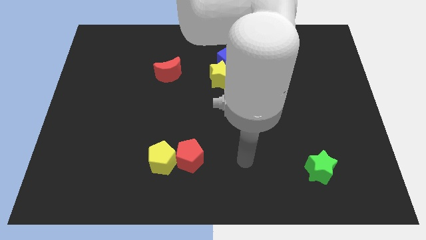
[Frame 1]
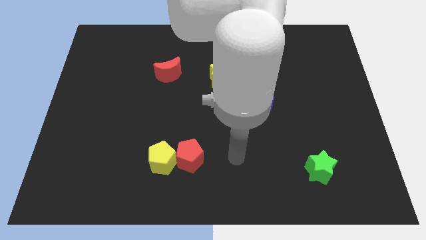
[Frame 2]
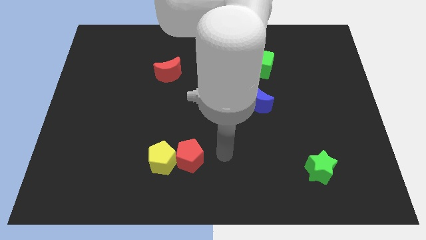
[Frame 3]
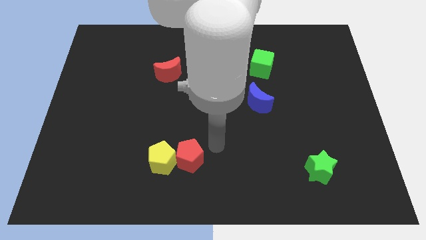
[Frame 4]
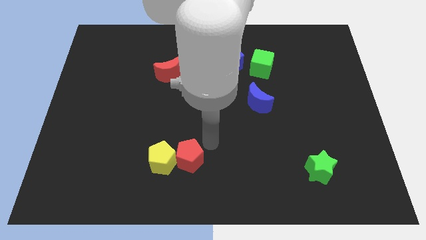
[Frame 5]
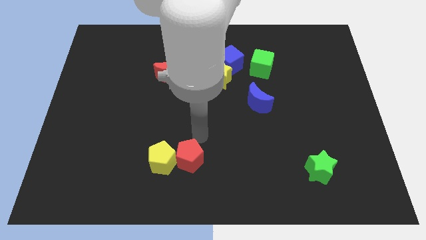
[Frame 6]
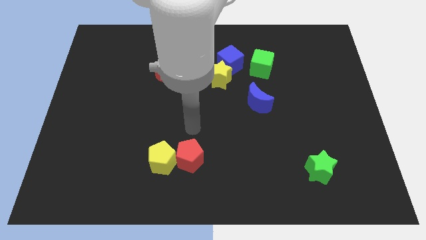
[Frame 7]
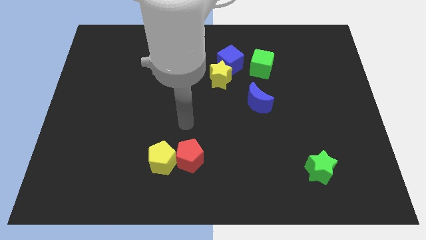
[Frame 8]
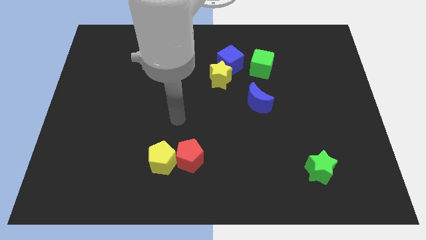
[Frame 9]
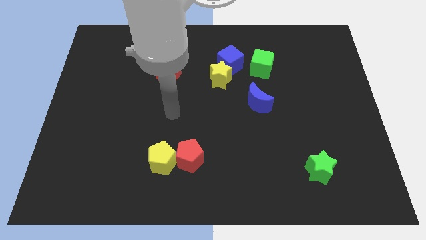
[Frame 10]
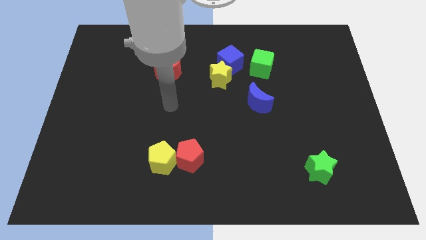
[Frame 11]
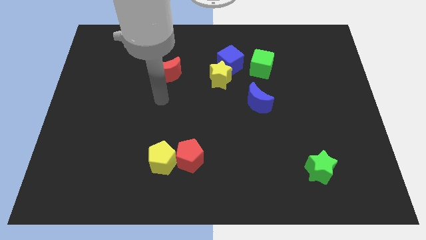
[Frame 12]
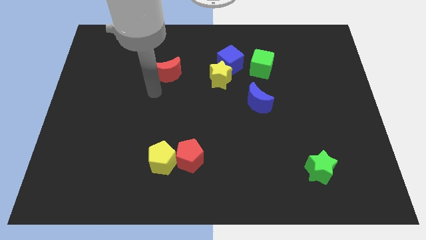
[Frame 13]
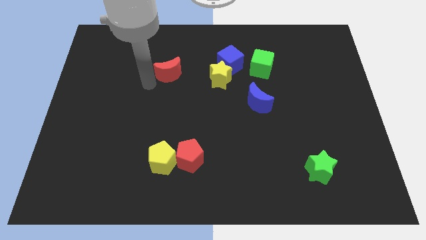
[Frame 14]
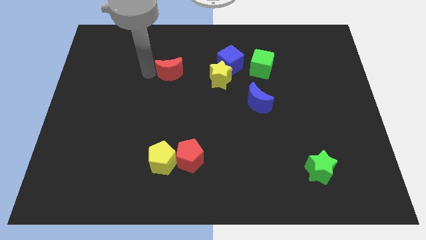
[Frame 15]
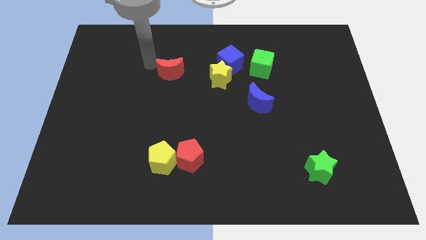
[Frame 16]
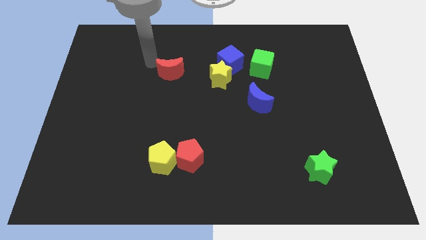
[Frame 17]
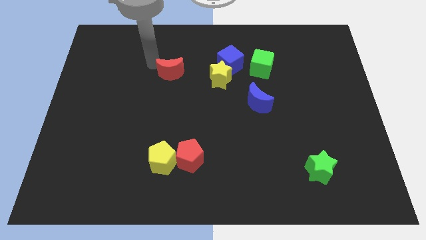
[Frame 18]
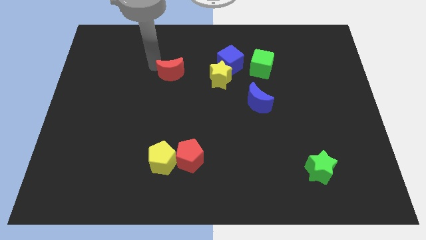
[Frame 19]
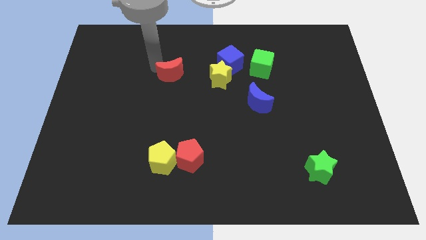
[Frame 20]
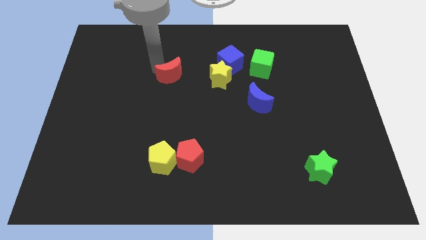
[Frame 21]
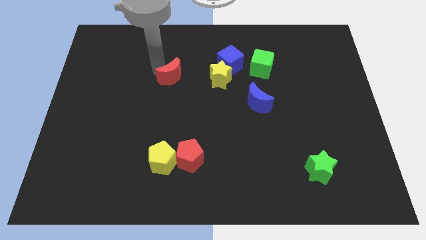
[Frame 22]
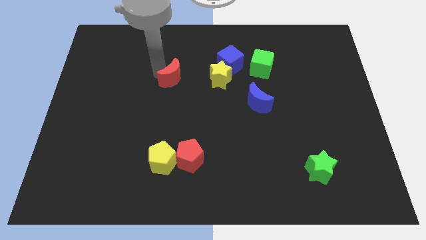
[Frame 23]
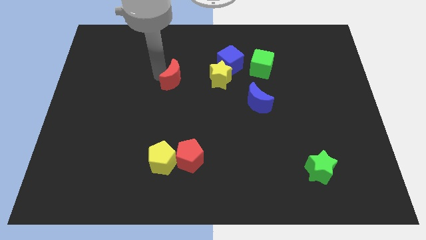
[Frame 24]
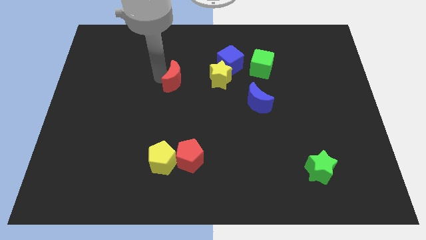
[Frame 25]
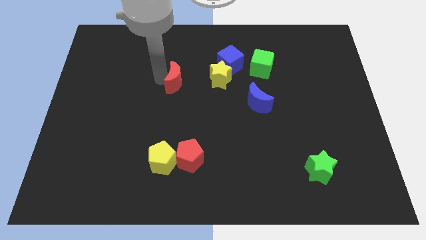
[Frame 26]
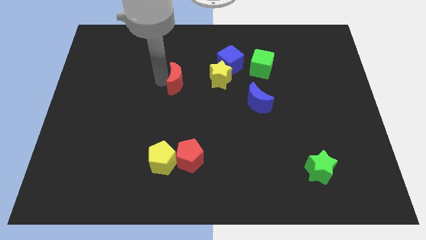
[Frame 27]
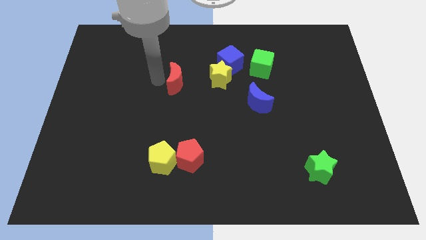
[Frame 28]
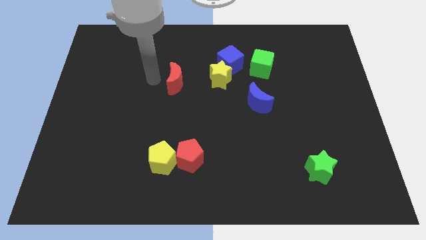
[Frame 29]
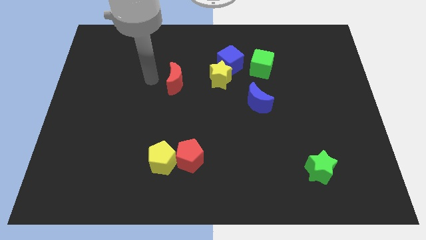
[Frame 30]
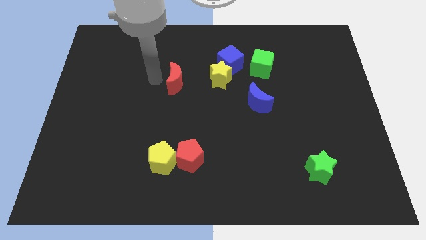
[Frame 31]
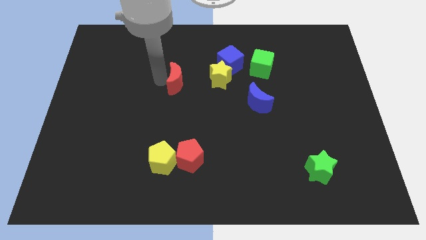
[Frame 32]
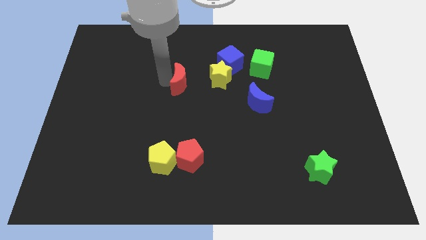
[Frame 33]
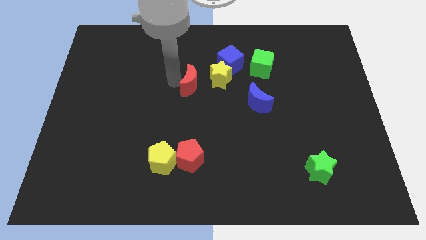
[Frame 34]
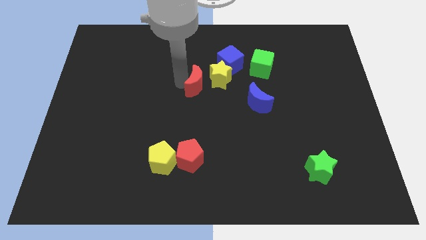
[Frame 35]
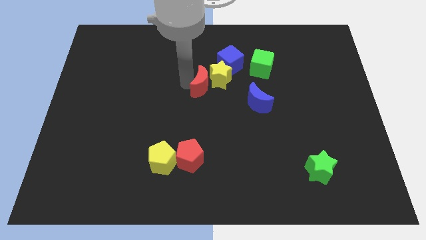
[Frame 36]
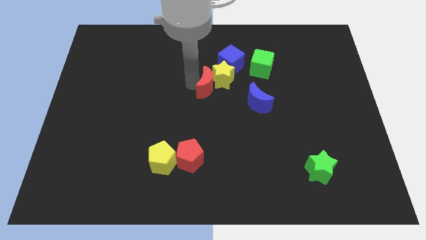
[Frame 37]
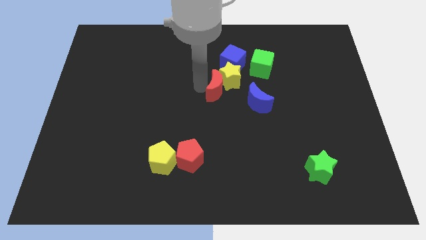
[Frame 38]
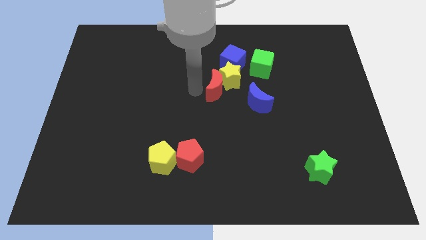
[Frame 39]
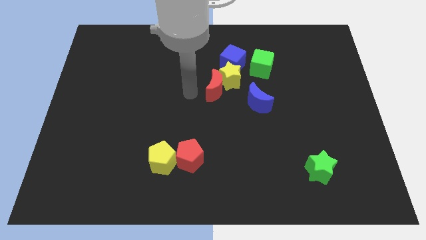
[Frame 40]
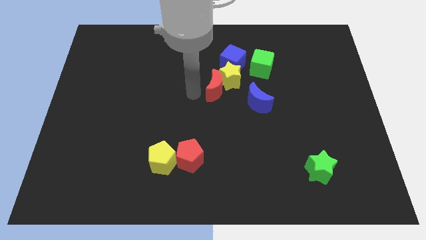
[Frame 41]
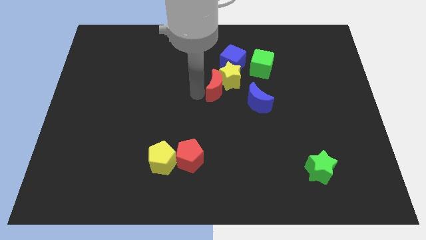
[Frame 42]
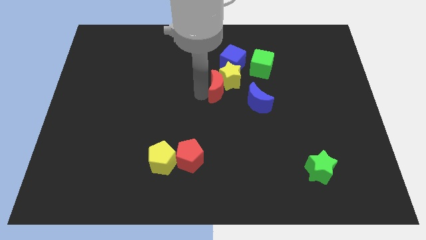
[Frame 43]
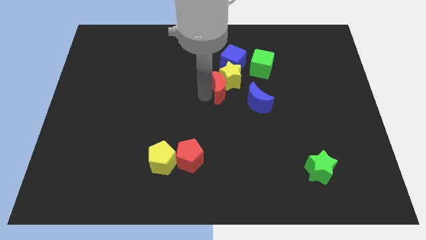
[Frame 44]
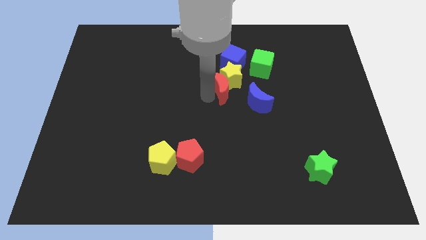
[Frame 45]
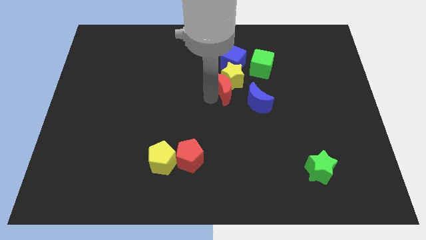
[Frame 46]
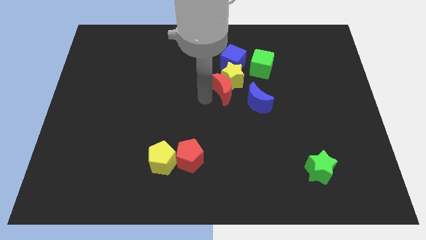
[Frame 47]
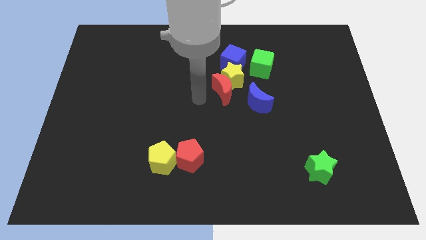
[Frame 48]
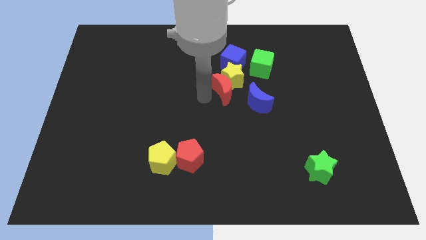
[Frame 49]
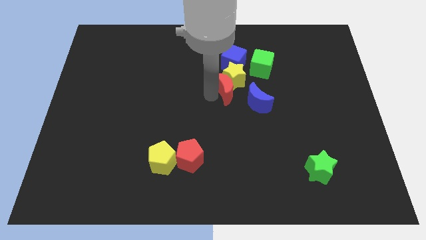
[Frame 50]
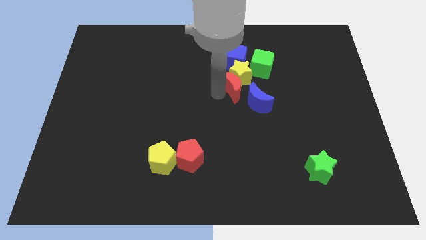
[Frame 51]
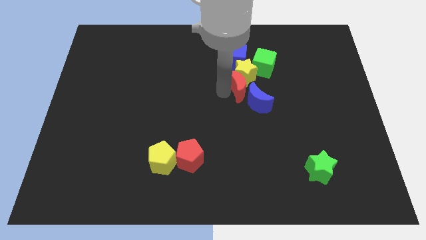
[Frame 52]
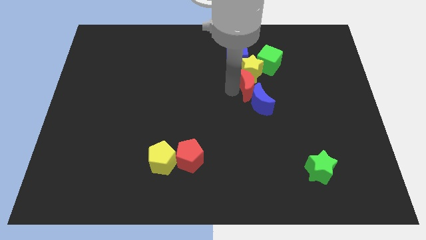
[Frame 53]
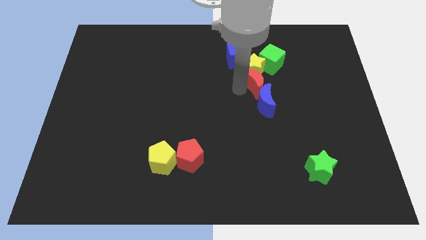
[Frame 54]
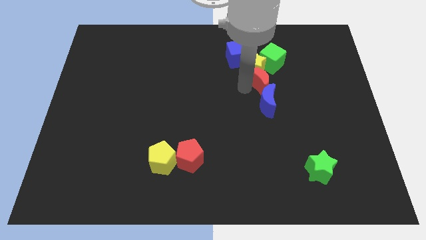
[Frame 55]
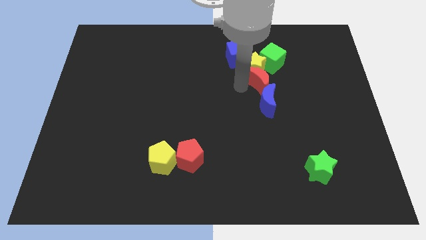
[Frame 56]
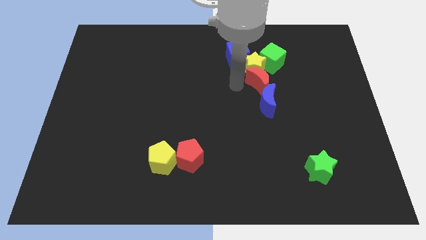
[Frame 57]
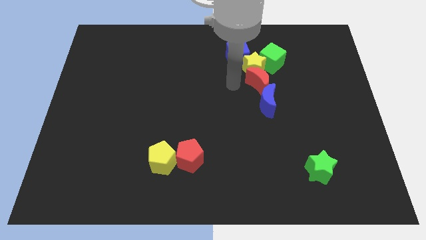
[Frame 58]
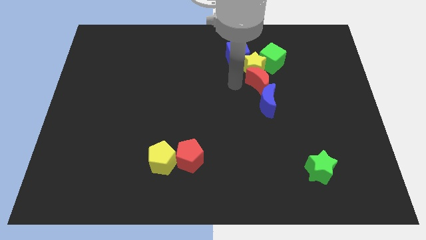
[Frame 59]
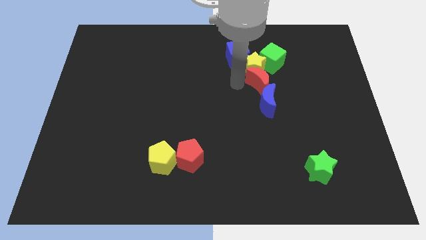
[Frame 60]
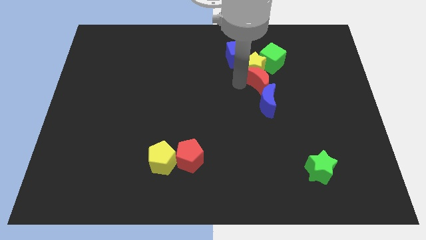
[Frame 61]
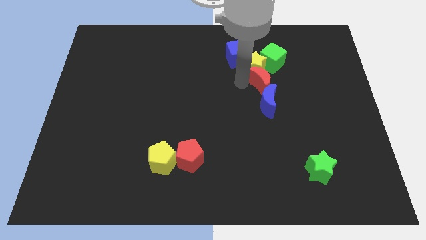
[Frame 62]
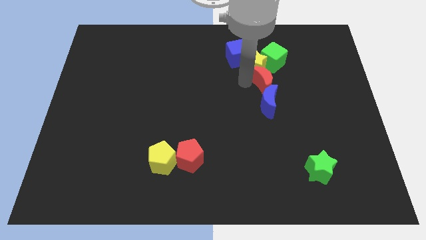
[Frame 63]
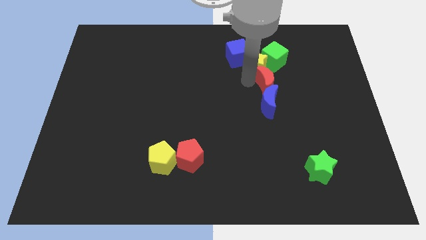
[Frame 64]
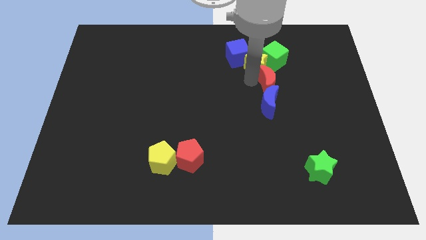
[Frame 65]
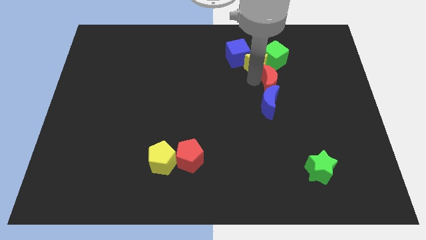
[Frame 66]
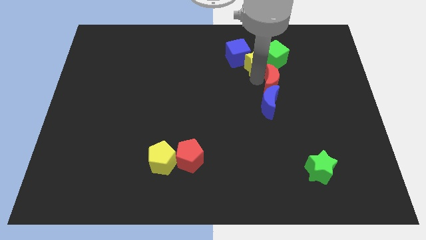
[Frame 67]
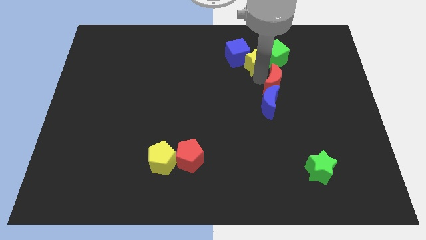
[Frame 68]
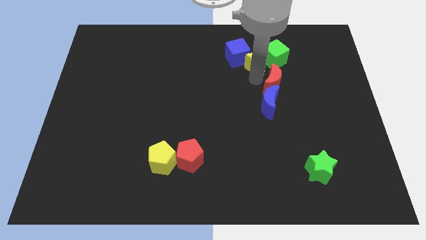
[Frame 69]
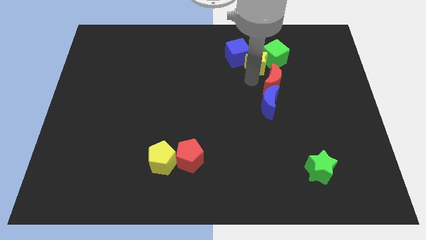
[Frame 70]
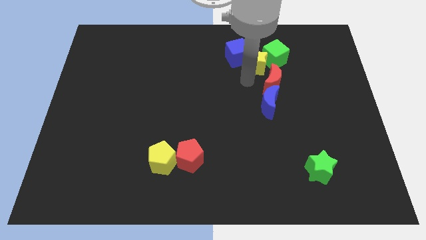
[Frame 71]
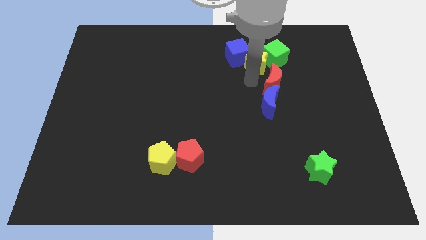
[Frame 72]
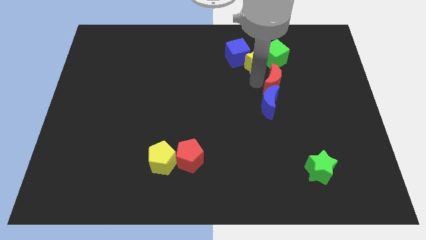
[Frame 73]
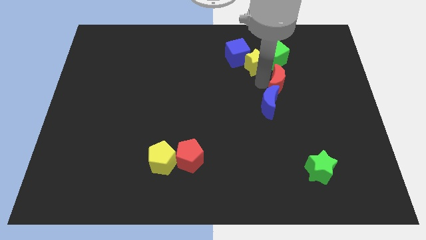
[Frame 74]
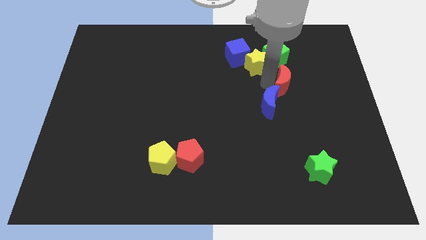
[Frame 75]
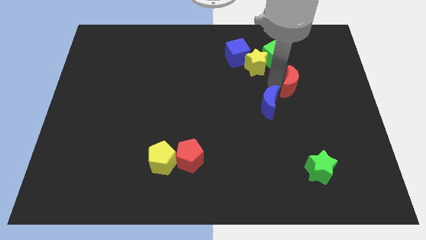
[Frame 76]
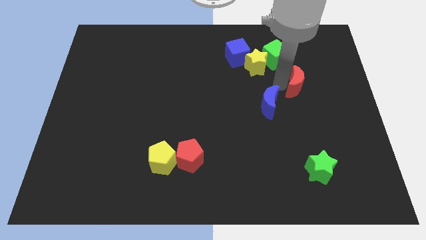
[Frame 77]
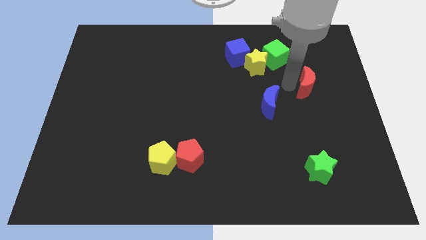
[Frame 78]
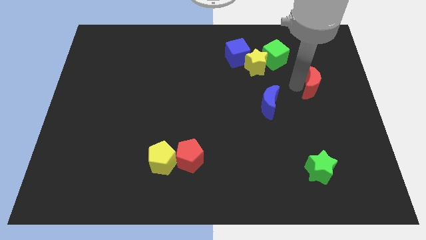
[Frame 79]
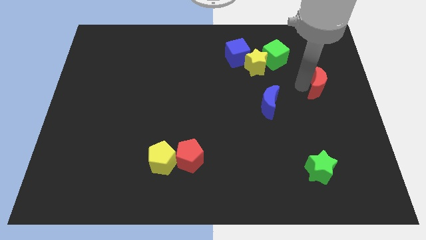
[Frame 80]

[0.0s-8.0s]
slide the red moon to the right side
